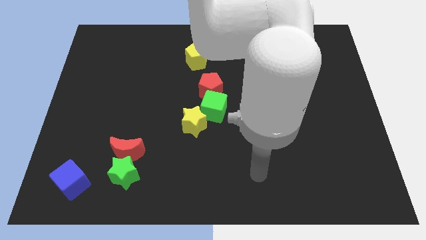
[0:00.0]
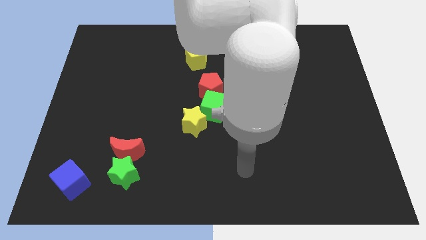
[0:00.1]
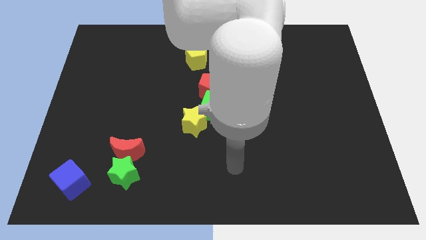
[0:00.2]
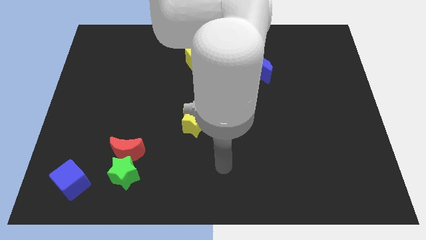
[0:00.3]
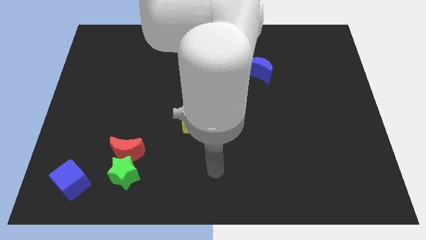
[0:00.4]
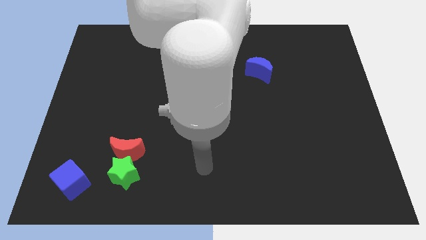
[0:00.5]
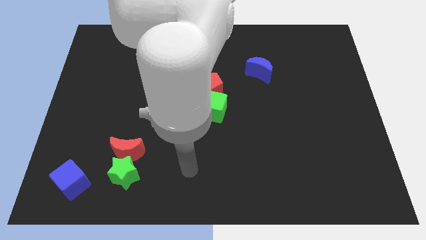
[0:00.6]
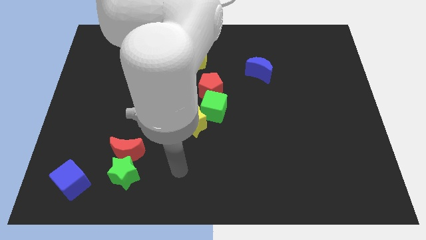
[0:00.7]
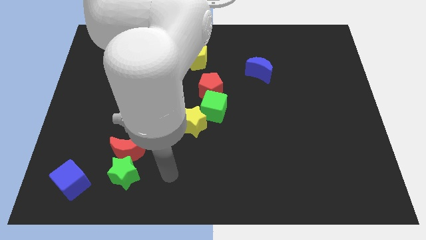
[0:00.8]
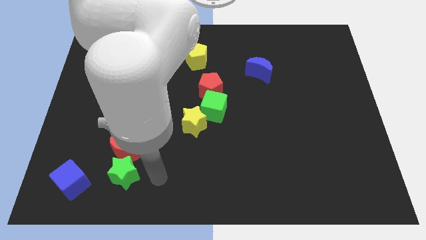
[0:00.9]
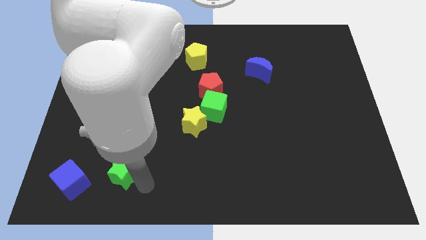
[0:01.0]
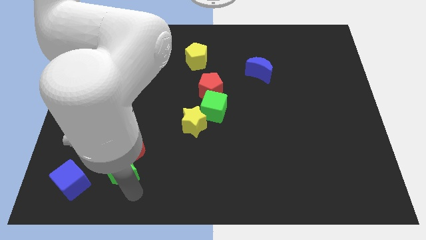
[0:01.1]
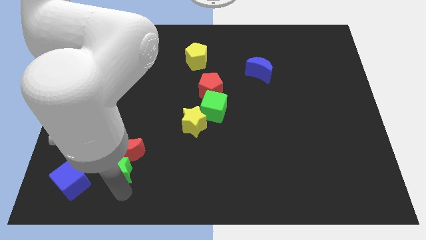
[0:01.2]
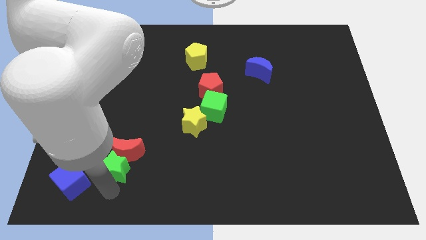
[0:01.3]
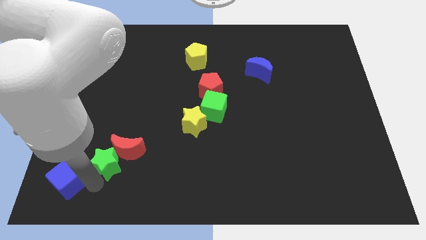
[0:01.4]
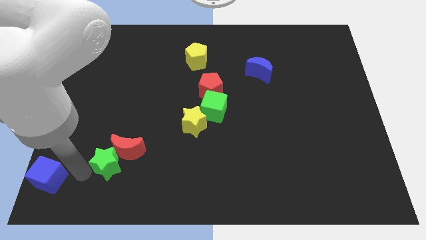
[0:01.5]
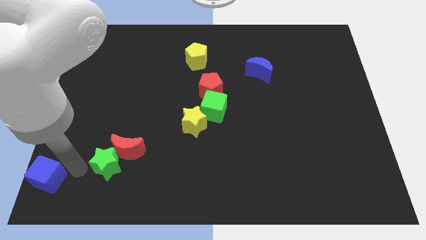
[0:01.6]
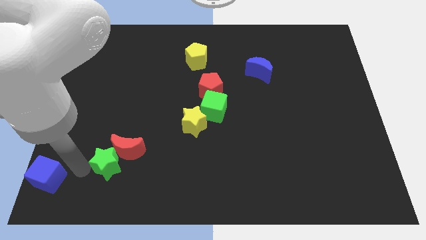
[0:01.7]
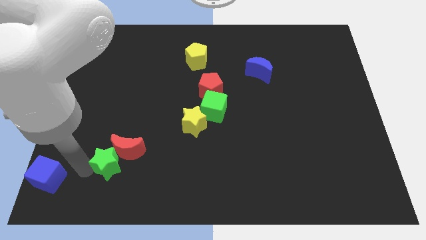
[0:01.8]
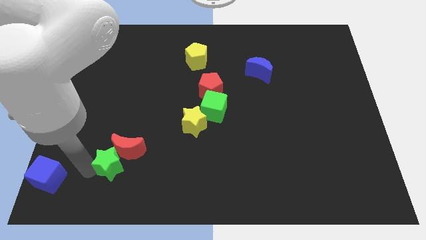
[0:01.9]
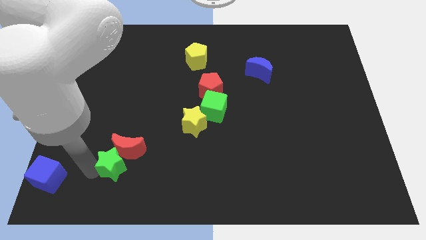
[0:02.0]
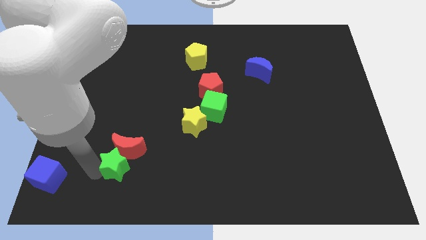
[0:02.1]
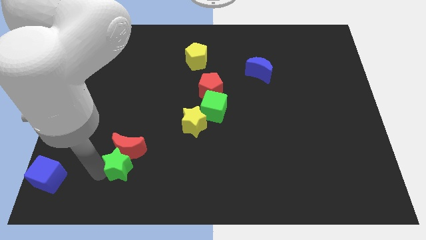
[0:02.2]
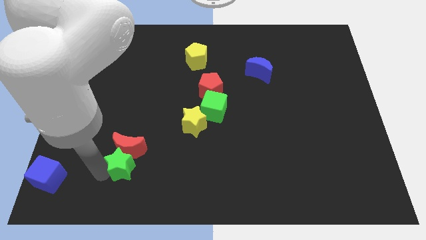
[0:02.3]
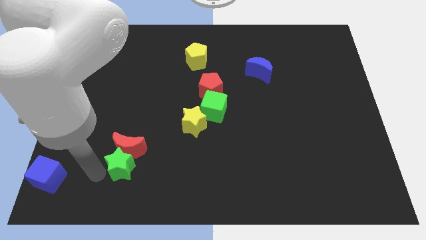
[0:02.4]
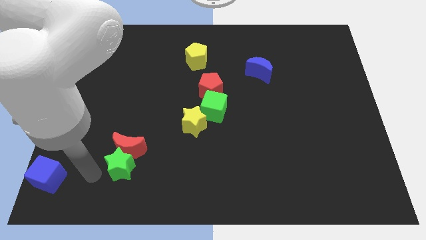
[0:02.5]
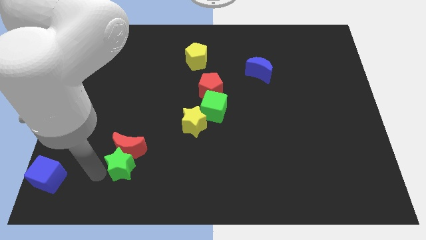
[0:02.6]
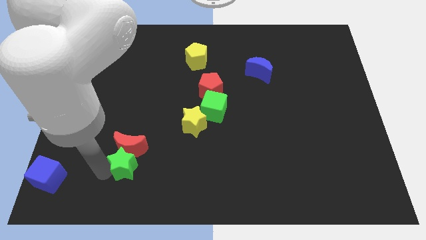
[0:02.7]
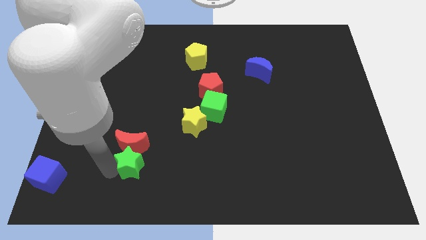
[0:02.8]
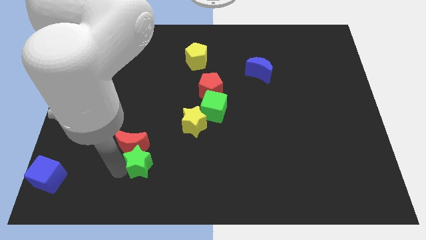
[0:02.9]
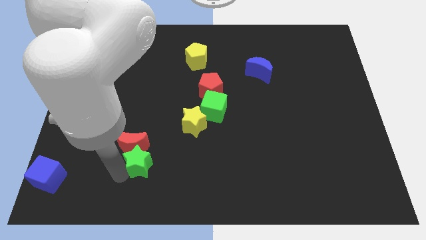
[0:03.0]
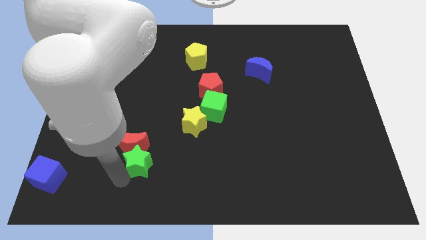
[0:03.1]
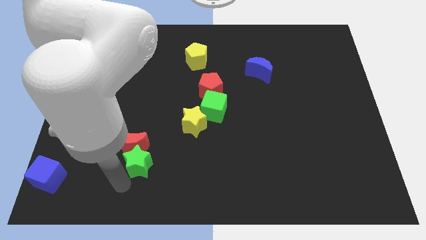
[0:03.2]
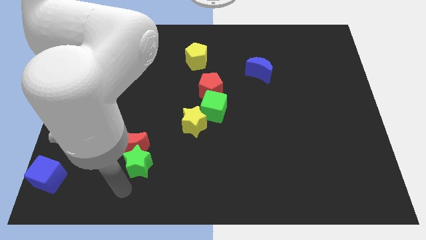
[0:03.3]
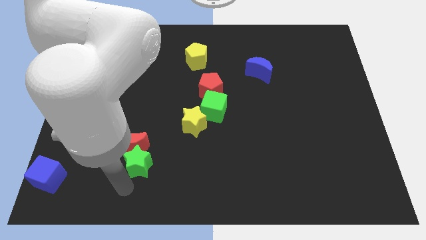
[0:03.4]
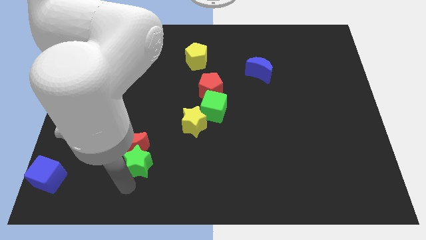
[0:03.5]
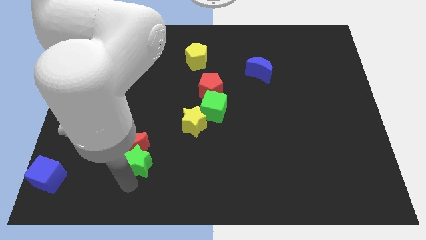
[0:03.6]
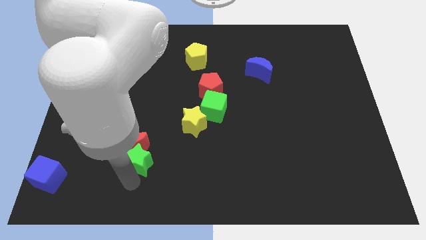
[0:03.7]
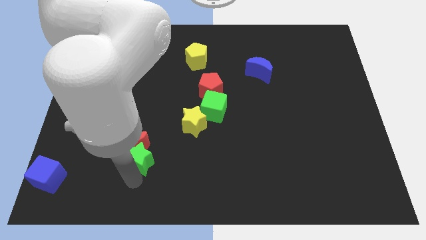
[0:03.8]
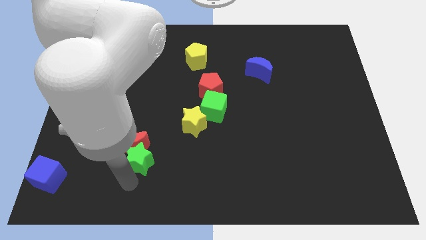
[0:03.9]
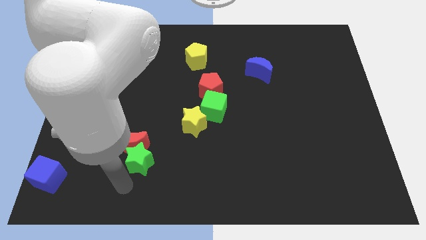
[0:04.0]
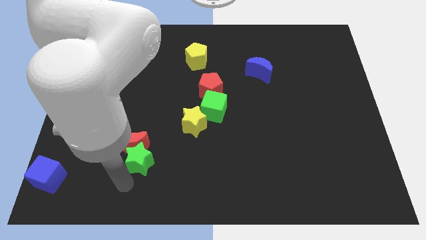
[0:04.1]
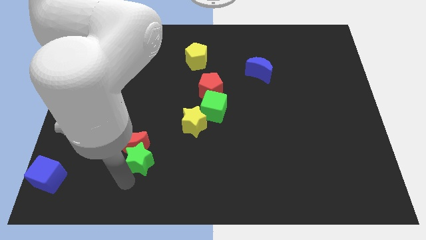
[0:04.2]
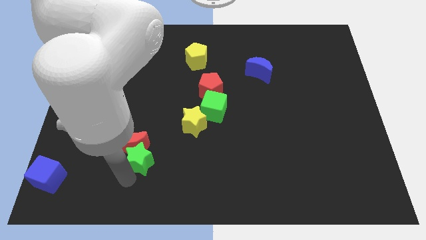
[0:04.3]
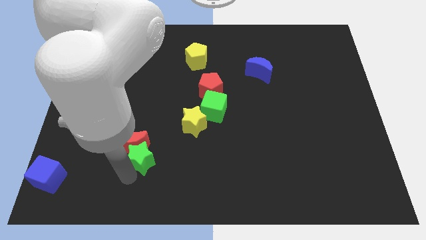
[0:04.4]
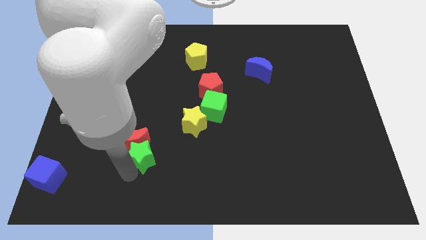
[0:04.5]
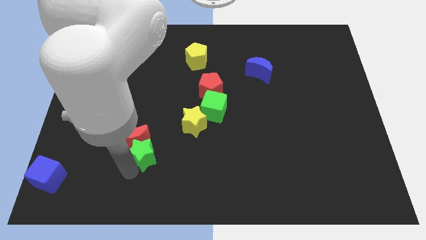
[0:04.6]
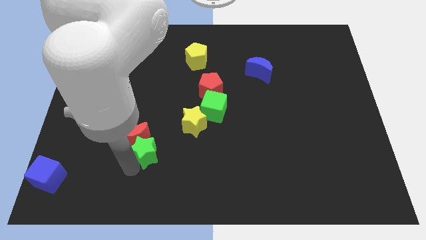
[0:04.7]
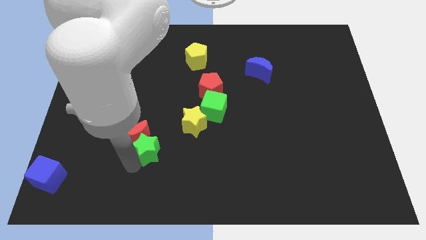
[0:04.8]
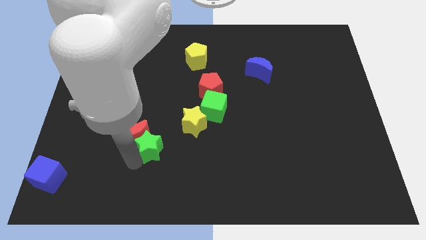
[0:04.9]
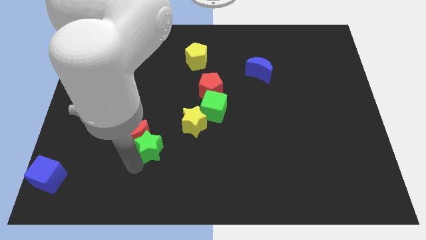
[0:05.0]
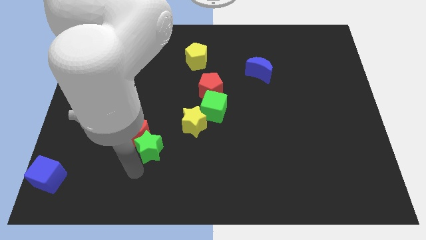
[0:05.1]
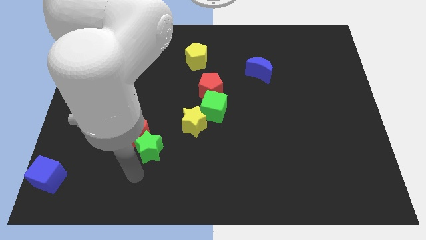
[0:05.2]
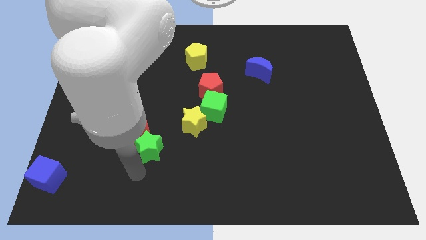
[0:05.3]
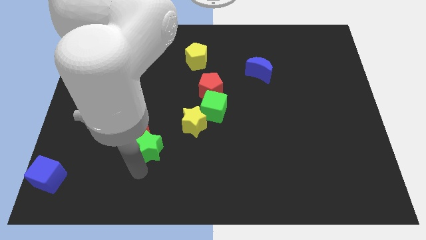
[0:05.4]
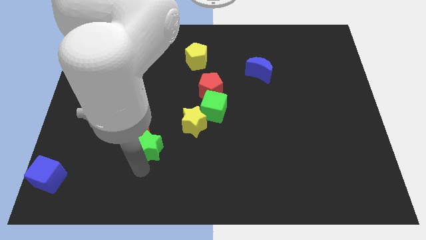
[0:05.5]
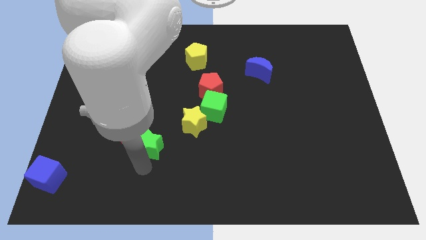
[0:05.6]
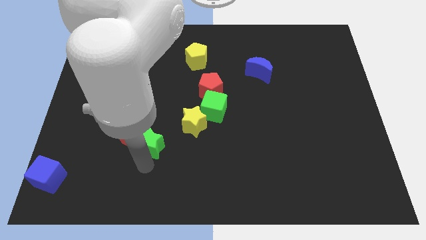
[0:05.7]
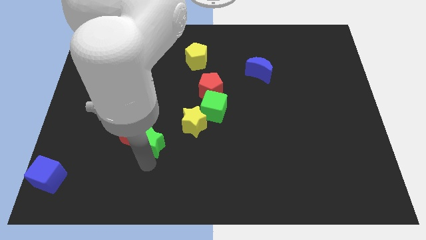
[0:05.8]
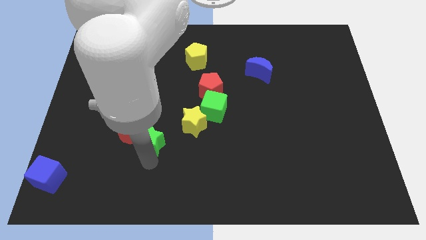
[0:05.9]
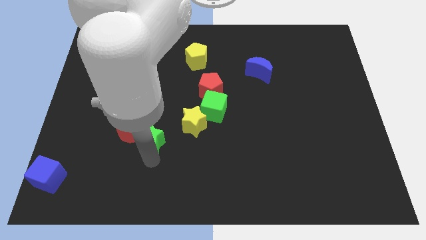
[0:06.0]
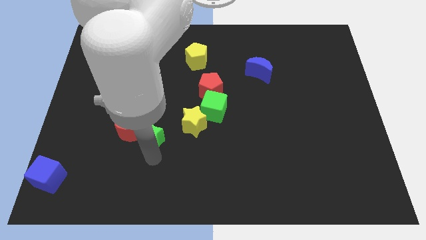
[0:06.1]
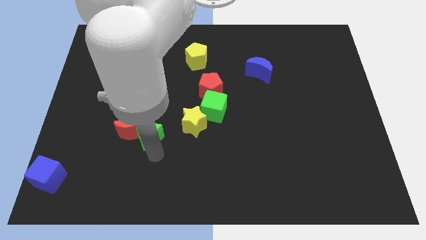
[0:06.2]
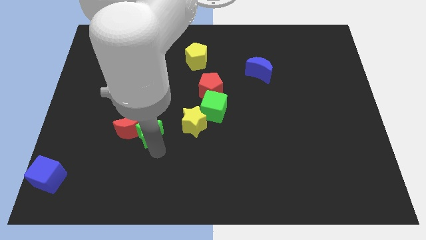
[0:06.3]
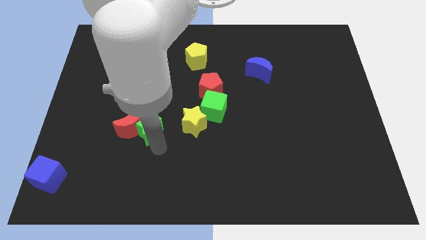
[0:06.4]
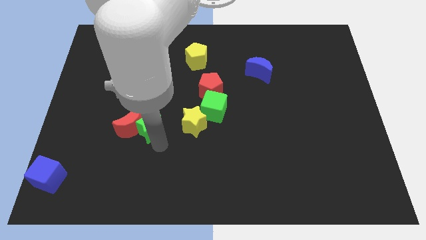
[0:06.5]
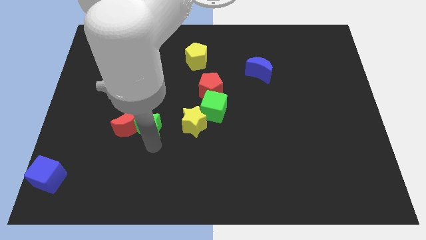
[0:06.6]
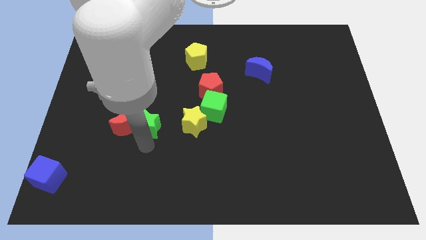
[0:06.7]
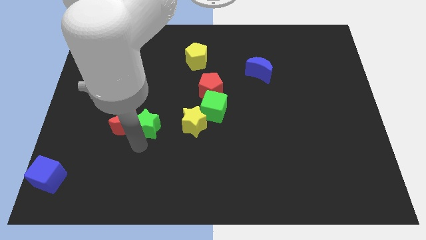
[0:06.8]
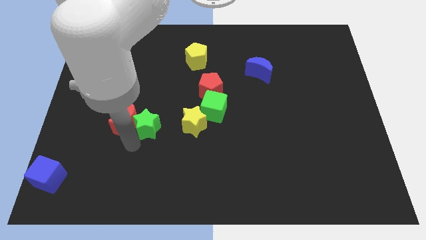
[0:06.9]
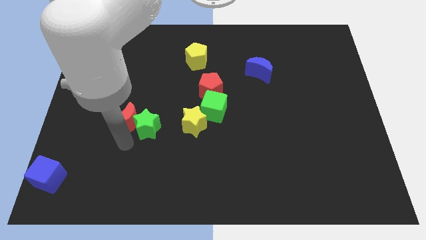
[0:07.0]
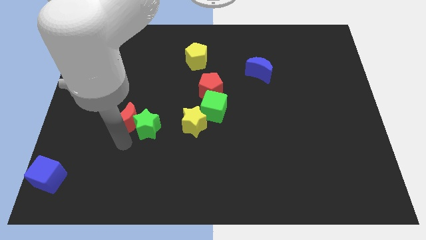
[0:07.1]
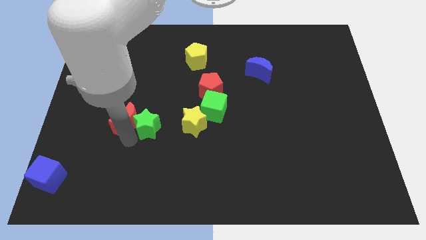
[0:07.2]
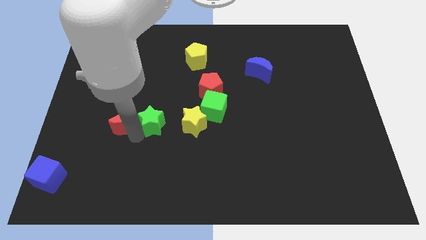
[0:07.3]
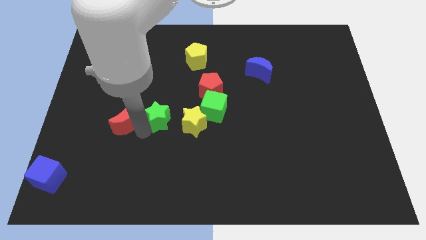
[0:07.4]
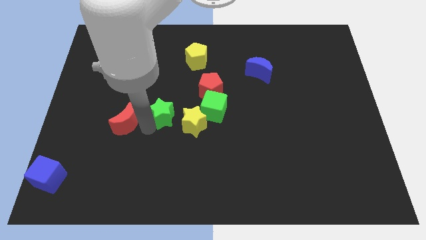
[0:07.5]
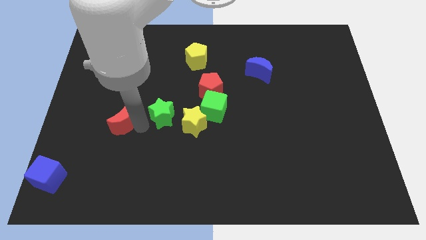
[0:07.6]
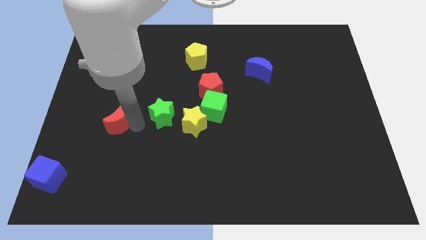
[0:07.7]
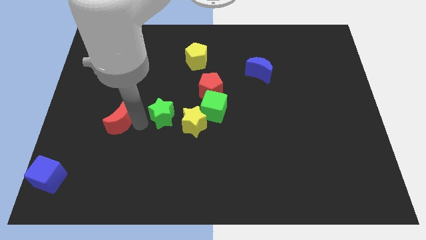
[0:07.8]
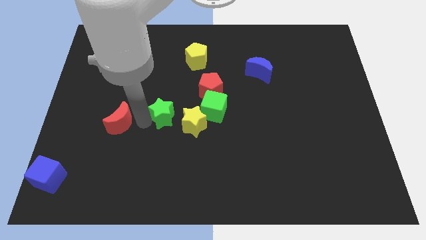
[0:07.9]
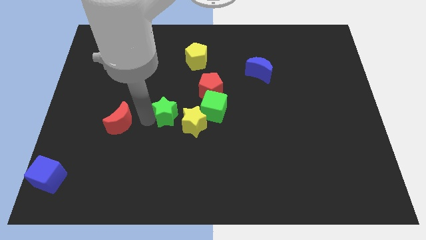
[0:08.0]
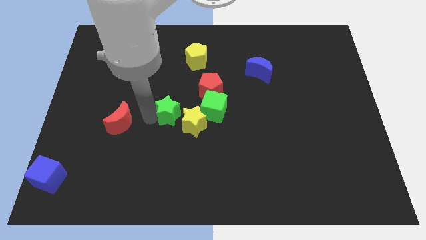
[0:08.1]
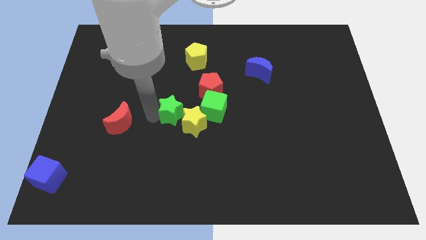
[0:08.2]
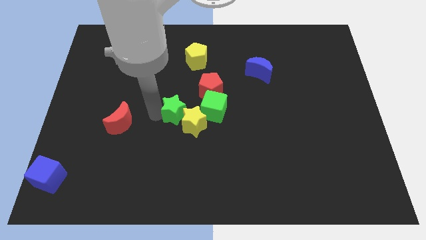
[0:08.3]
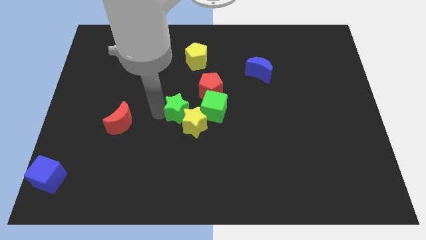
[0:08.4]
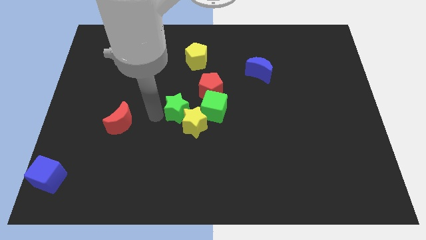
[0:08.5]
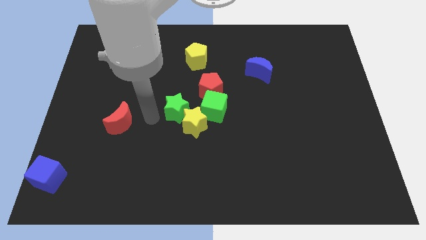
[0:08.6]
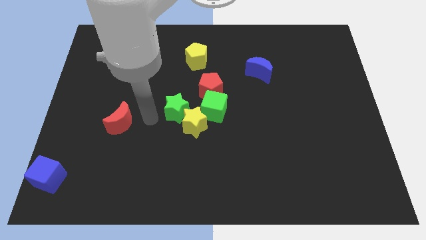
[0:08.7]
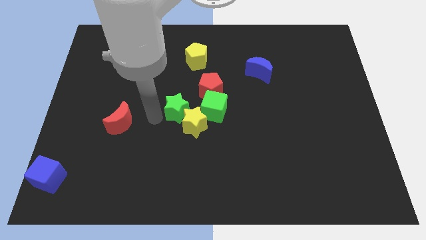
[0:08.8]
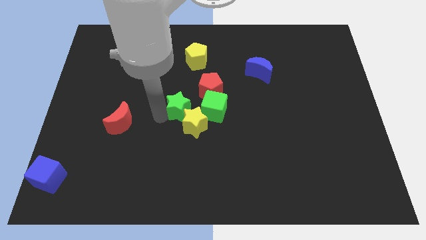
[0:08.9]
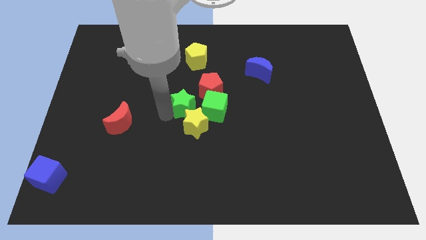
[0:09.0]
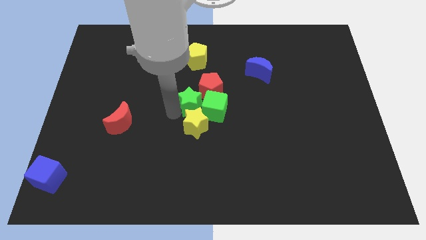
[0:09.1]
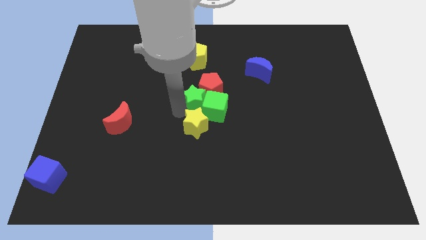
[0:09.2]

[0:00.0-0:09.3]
move the green star next to the red pentagon
